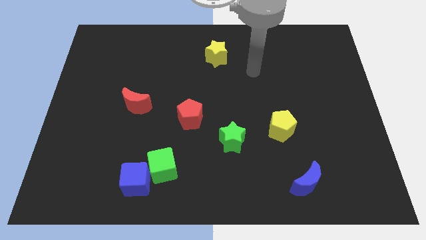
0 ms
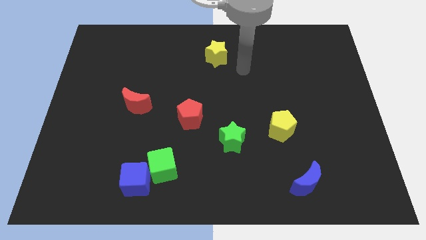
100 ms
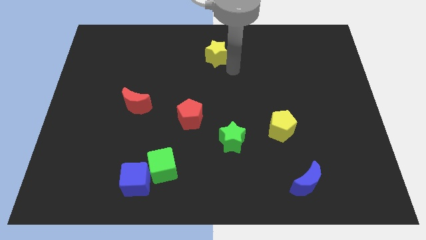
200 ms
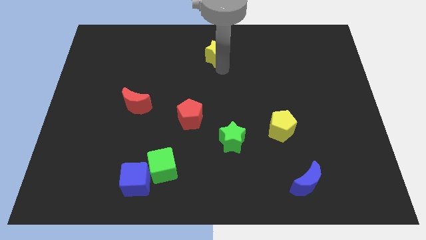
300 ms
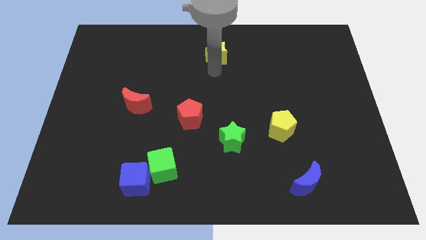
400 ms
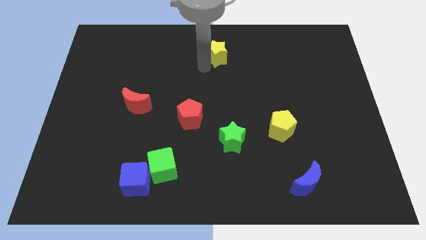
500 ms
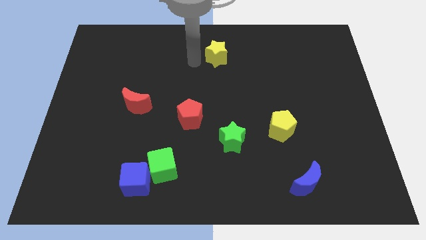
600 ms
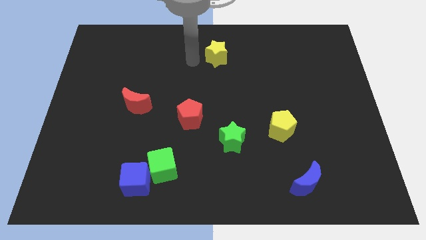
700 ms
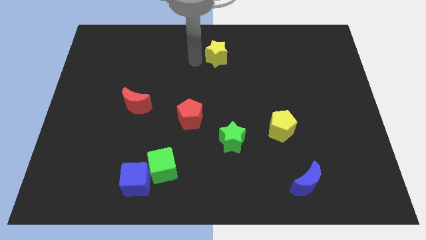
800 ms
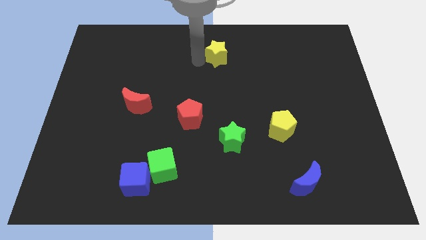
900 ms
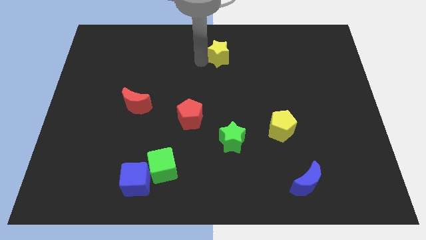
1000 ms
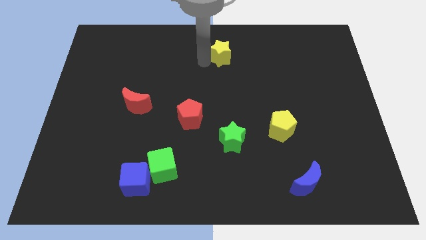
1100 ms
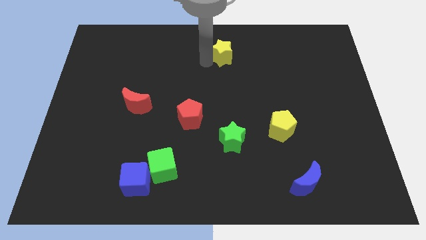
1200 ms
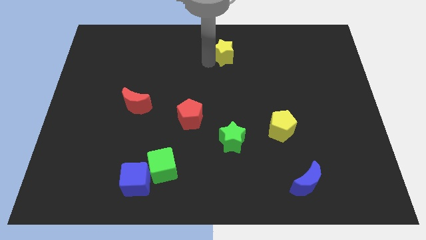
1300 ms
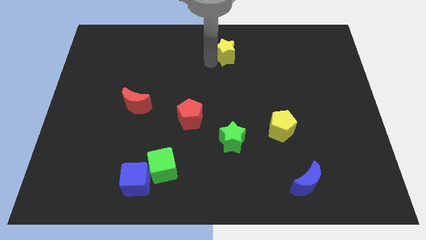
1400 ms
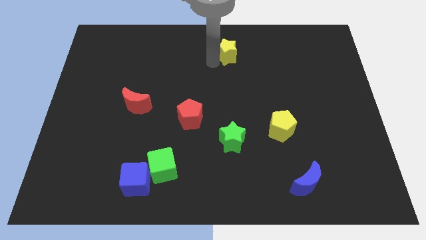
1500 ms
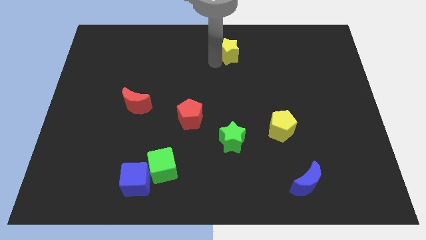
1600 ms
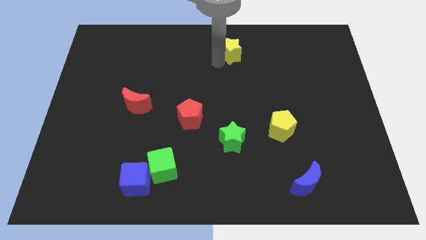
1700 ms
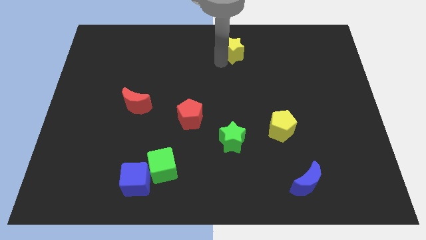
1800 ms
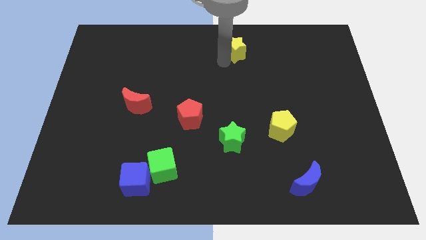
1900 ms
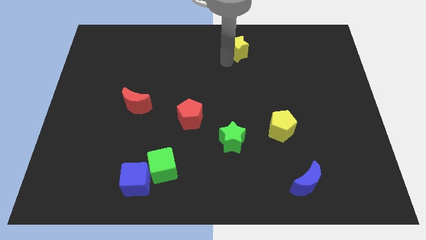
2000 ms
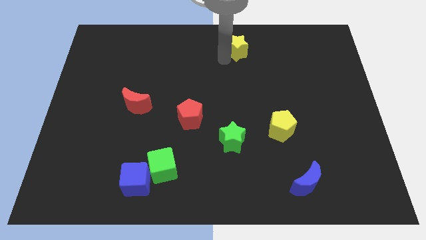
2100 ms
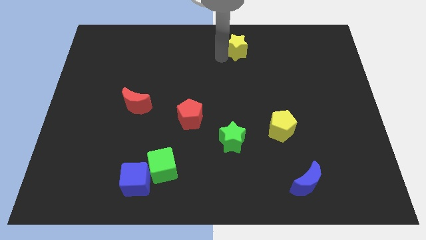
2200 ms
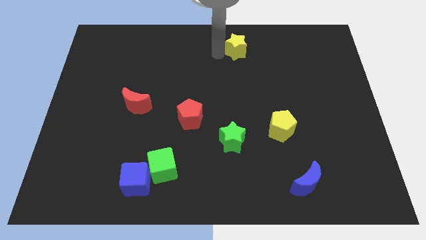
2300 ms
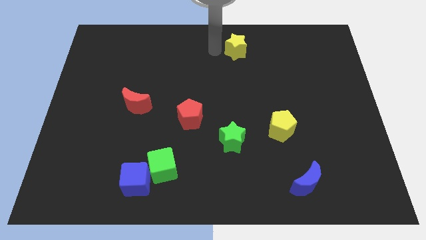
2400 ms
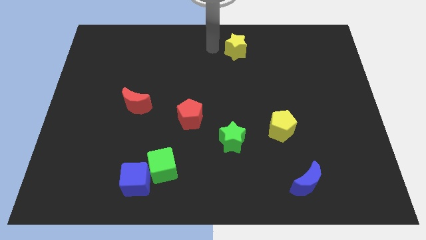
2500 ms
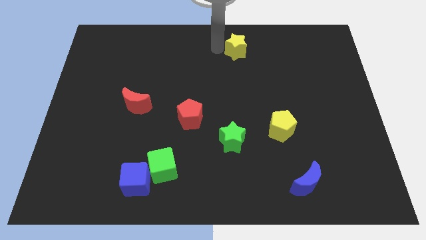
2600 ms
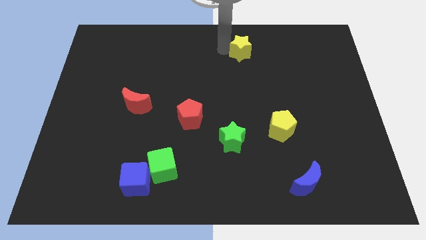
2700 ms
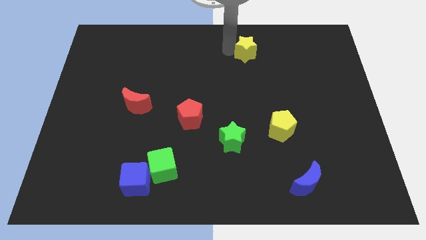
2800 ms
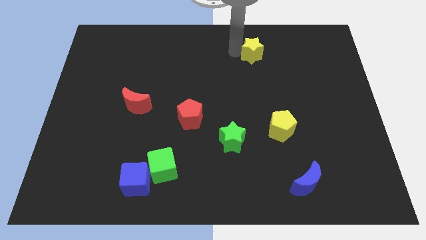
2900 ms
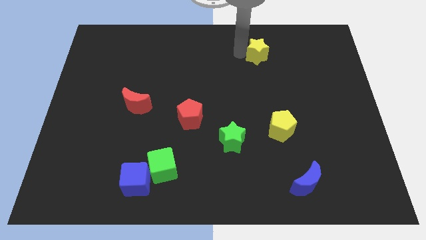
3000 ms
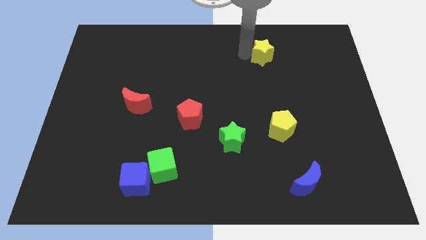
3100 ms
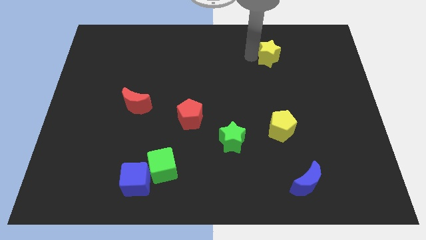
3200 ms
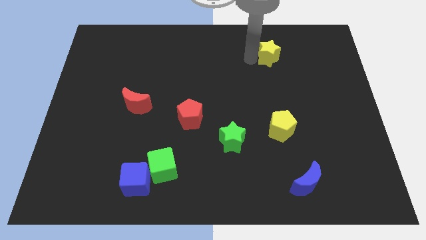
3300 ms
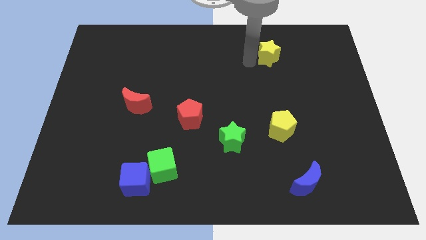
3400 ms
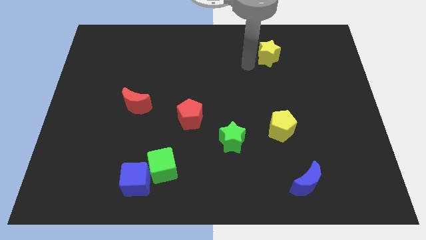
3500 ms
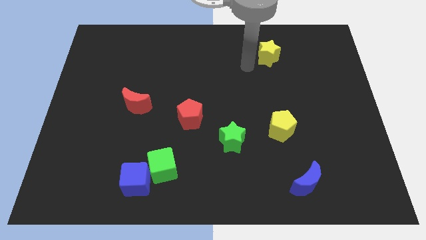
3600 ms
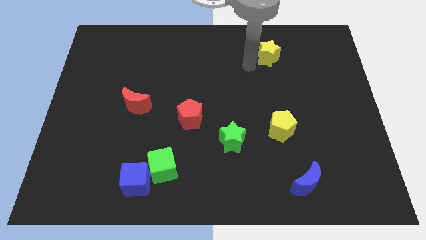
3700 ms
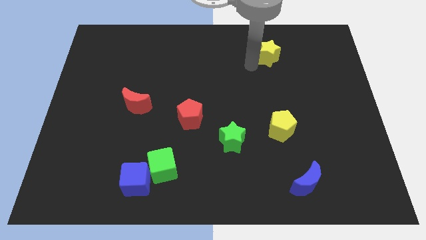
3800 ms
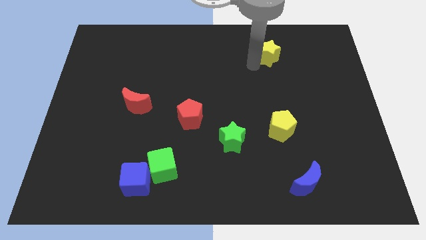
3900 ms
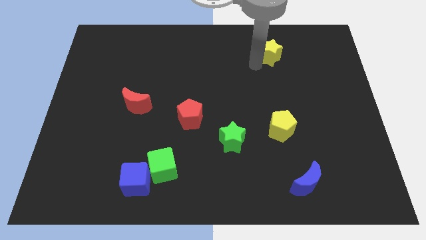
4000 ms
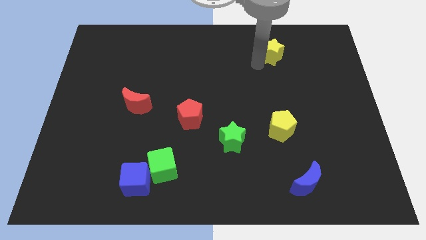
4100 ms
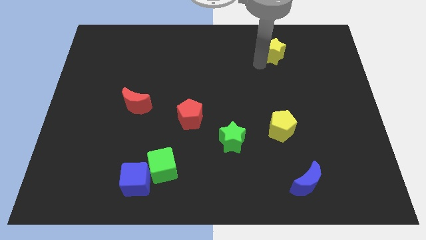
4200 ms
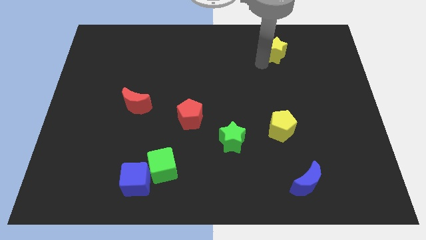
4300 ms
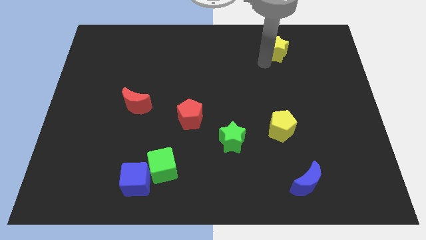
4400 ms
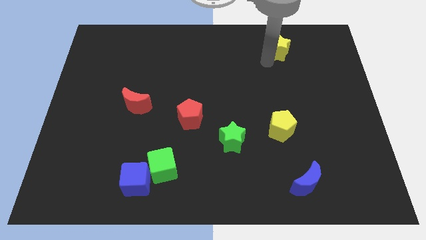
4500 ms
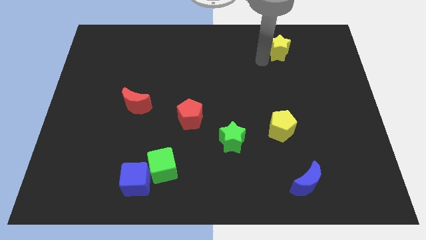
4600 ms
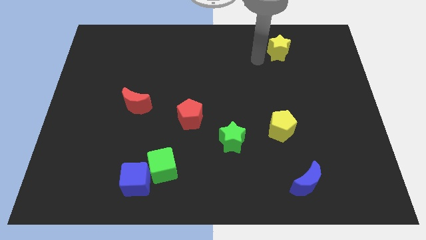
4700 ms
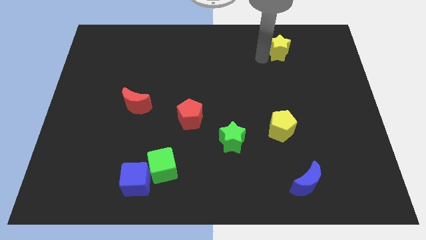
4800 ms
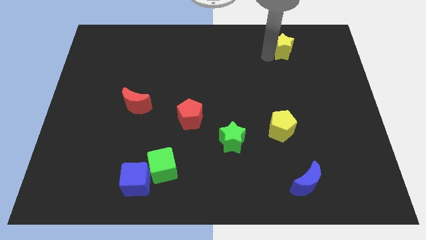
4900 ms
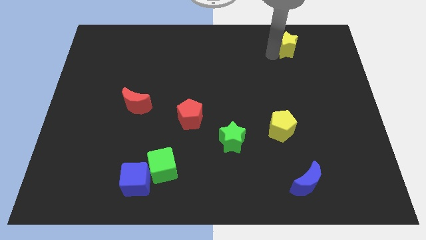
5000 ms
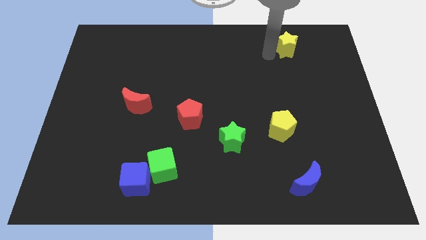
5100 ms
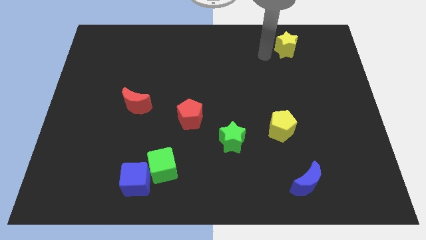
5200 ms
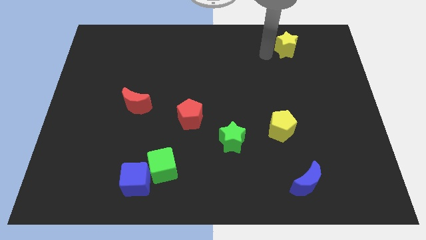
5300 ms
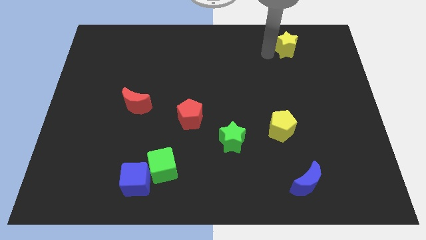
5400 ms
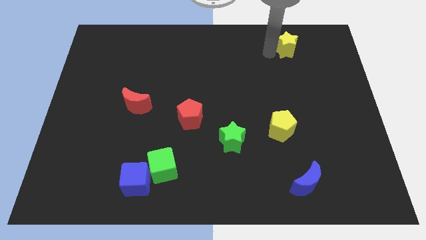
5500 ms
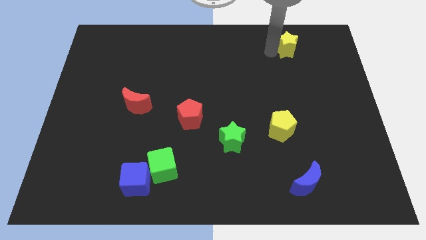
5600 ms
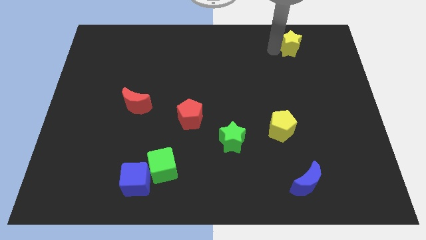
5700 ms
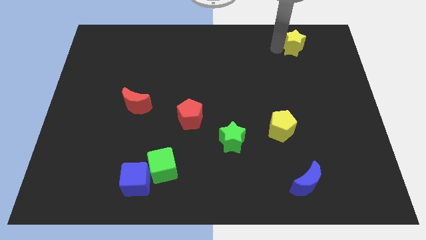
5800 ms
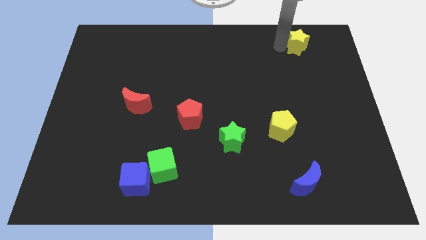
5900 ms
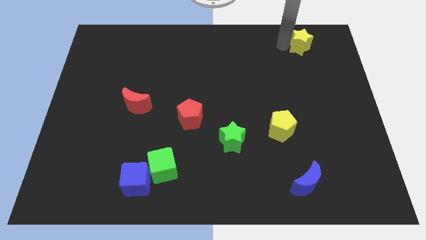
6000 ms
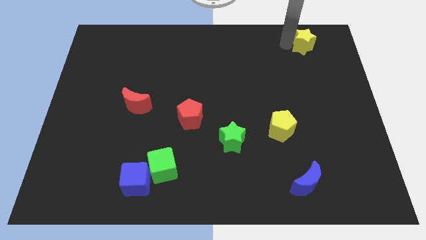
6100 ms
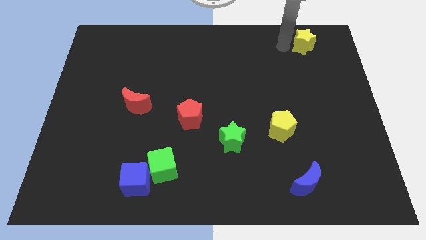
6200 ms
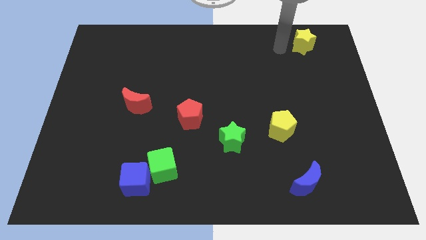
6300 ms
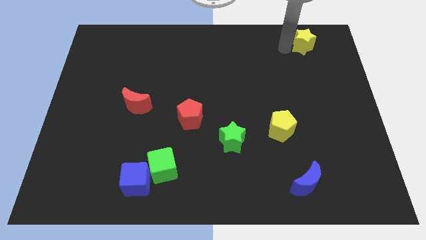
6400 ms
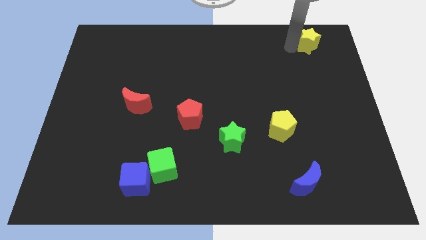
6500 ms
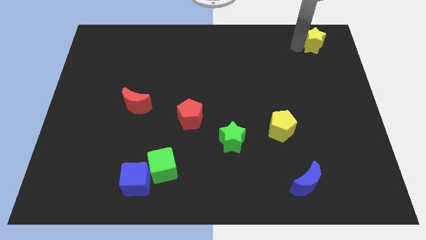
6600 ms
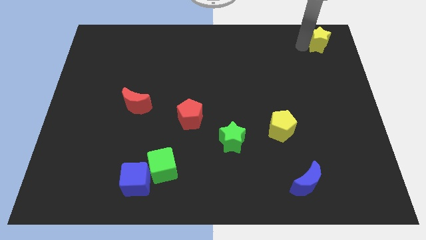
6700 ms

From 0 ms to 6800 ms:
slide the yellow star to the top right corner

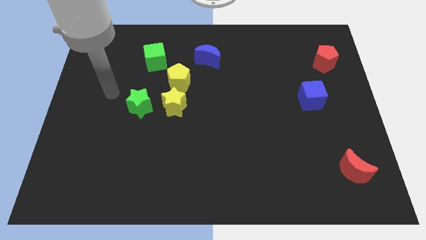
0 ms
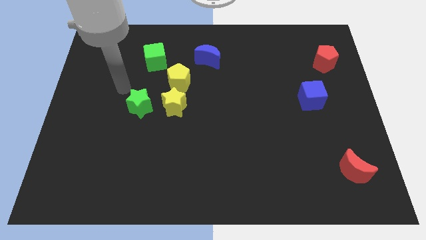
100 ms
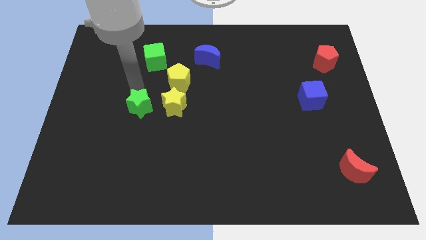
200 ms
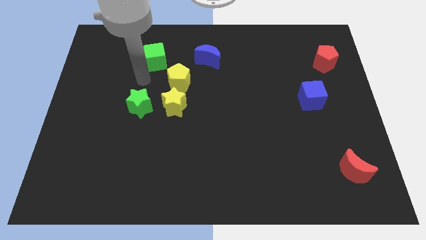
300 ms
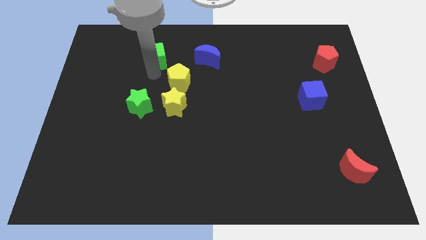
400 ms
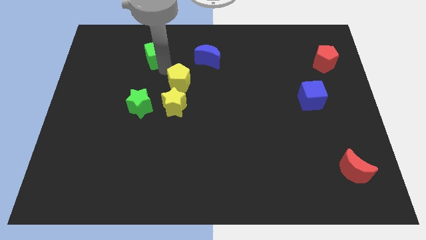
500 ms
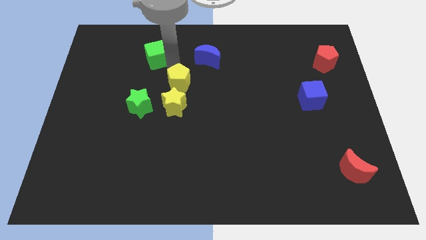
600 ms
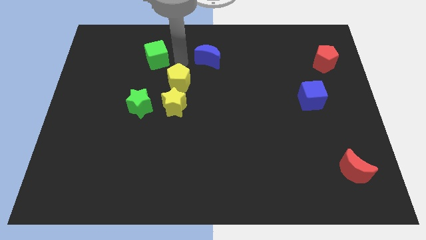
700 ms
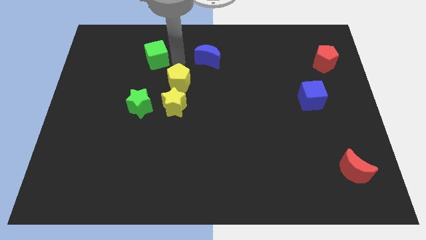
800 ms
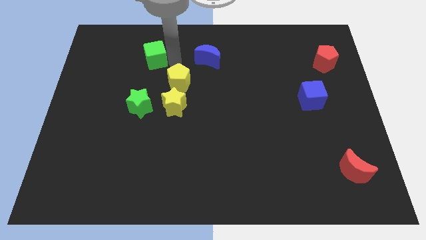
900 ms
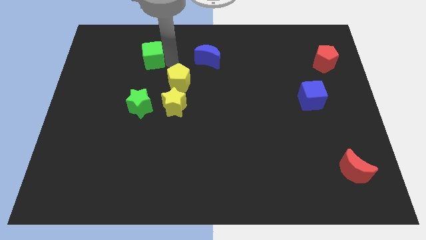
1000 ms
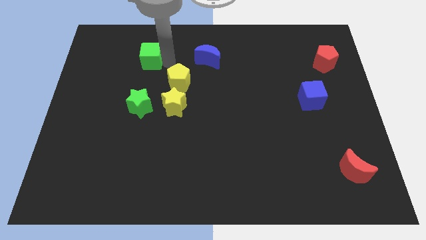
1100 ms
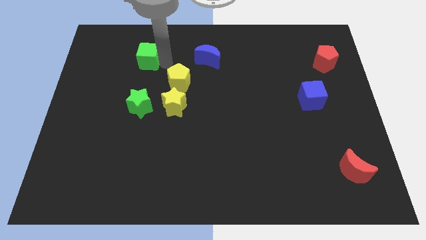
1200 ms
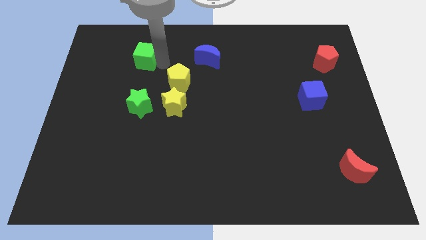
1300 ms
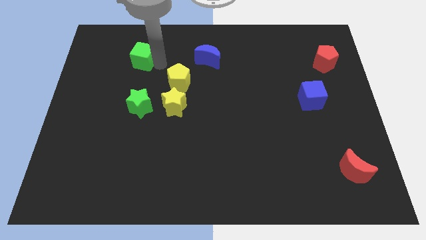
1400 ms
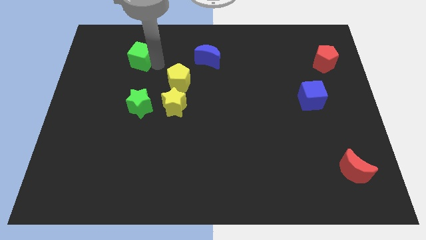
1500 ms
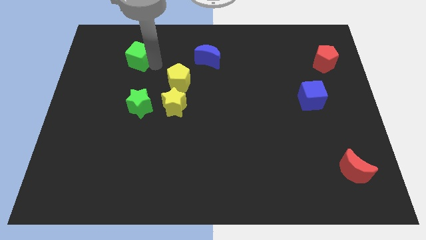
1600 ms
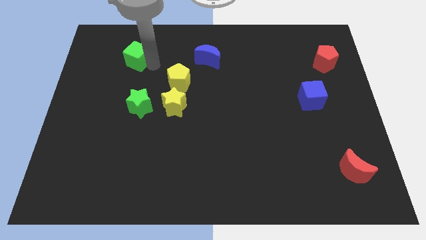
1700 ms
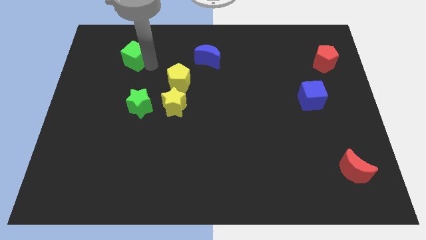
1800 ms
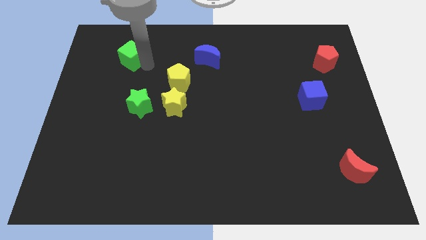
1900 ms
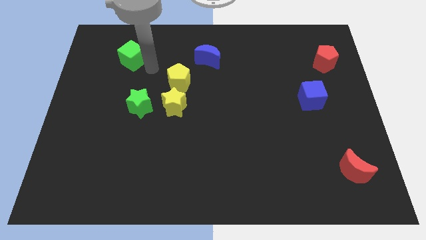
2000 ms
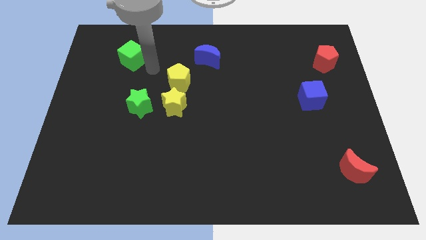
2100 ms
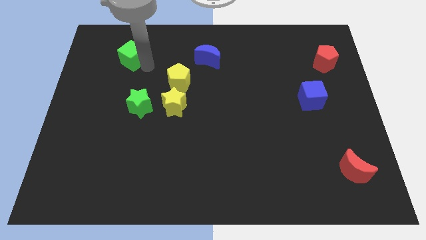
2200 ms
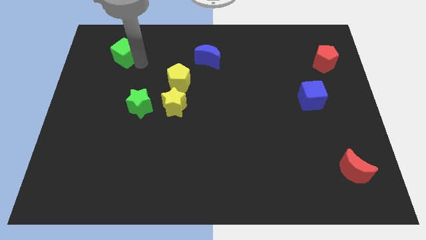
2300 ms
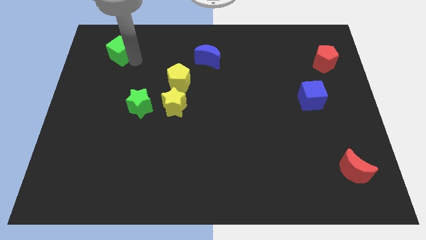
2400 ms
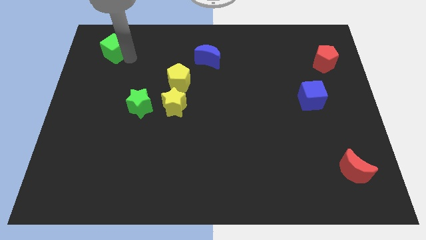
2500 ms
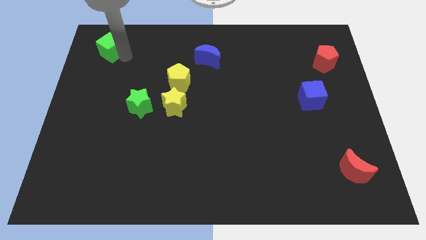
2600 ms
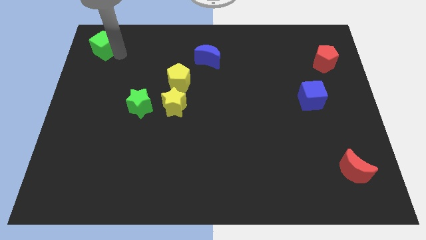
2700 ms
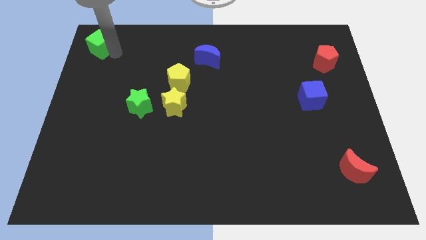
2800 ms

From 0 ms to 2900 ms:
push the green cube to the top left of the board
